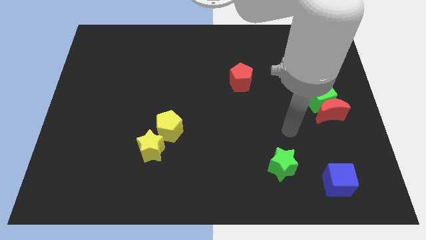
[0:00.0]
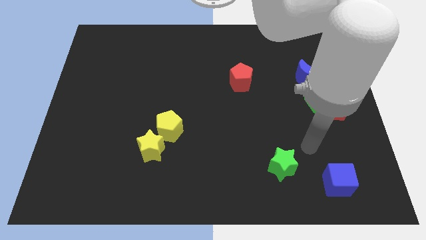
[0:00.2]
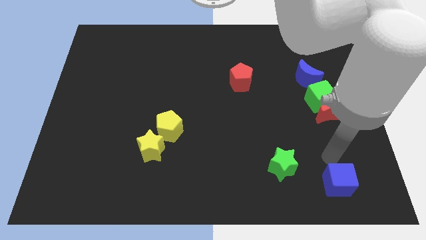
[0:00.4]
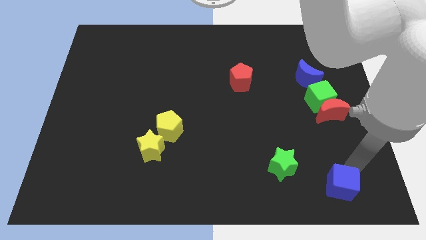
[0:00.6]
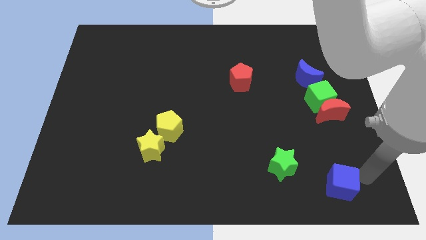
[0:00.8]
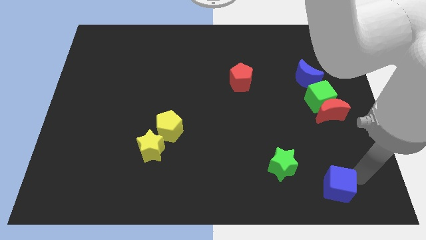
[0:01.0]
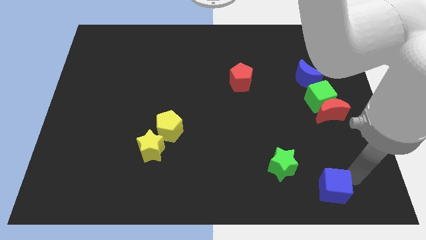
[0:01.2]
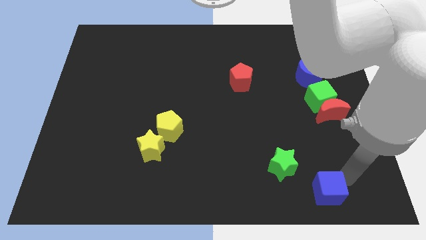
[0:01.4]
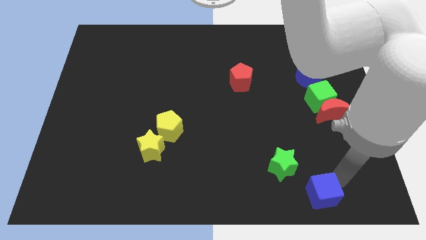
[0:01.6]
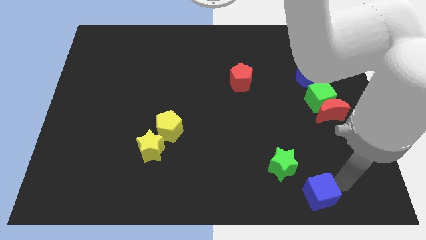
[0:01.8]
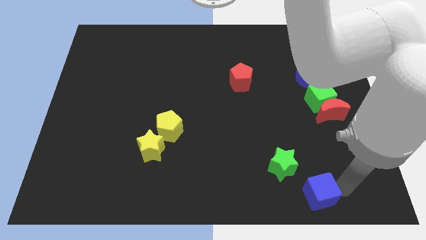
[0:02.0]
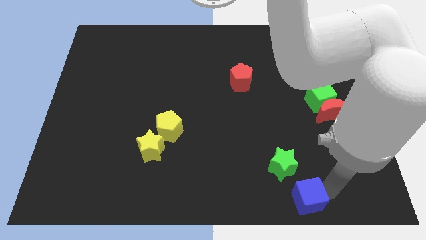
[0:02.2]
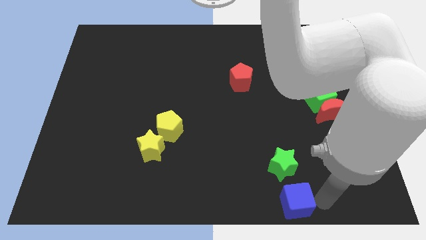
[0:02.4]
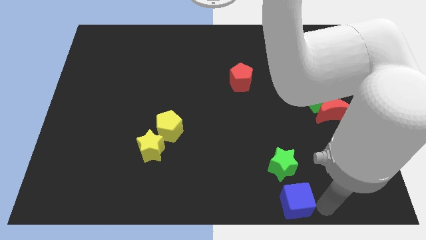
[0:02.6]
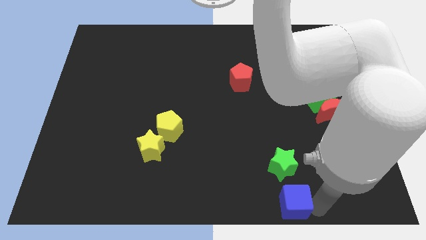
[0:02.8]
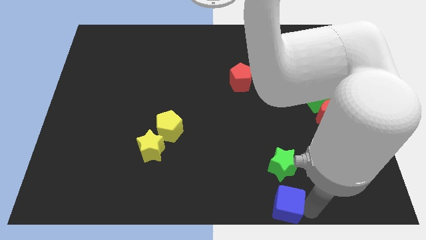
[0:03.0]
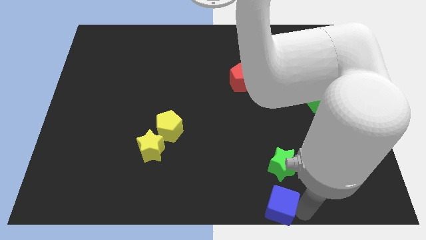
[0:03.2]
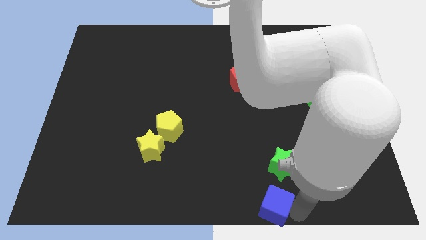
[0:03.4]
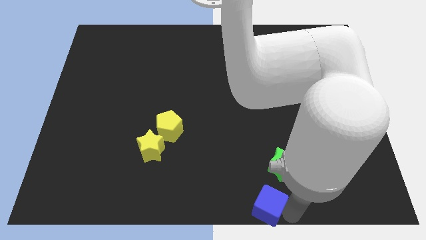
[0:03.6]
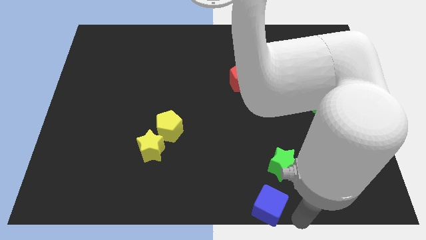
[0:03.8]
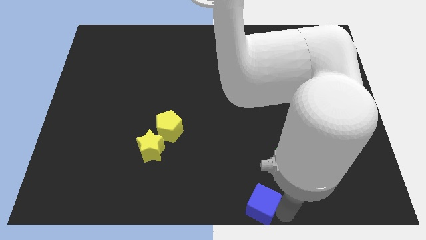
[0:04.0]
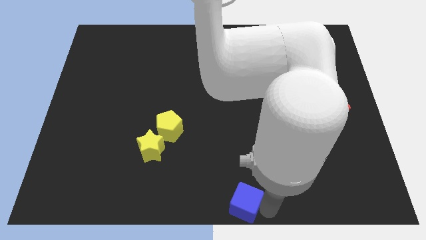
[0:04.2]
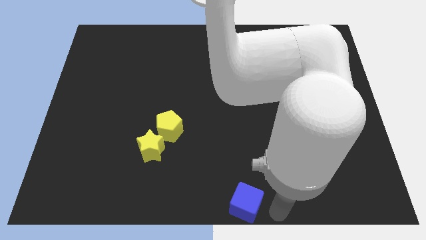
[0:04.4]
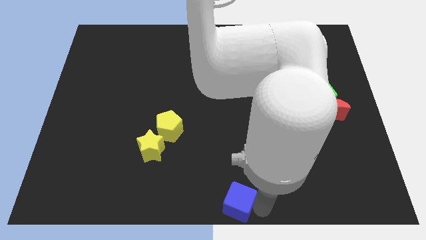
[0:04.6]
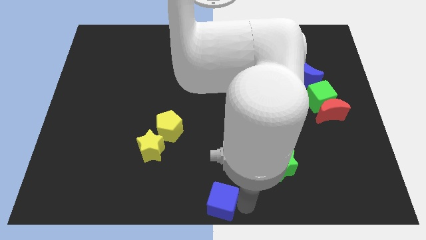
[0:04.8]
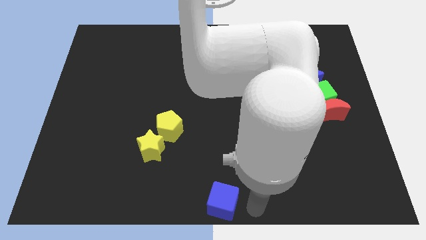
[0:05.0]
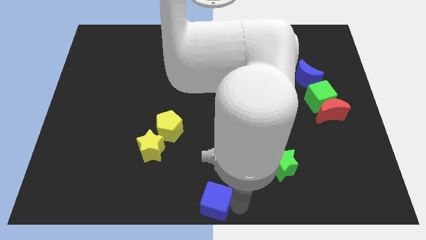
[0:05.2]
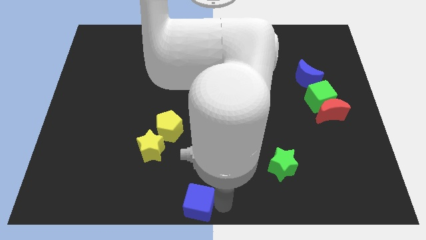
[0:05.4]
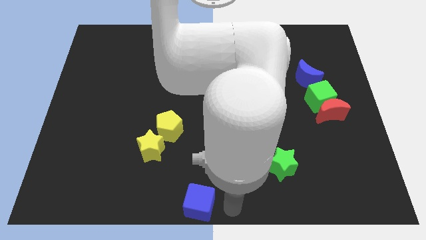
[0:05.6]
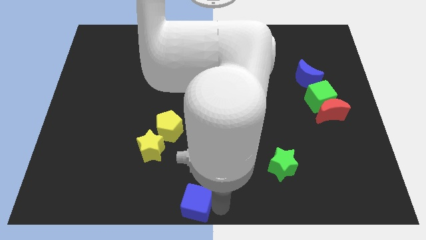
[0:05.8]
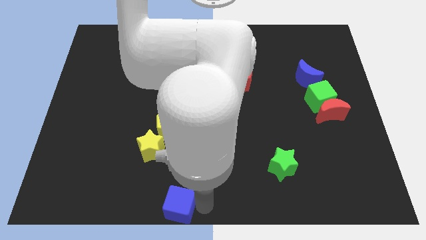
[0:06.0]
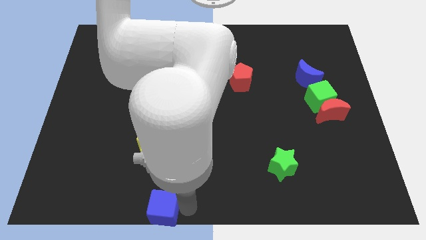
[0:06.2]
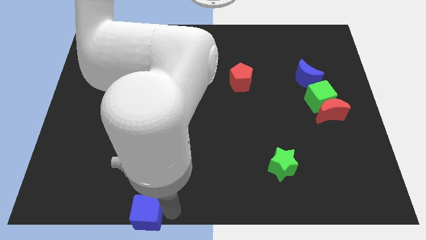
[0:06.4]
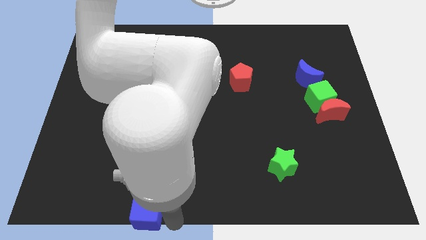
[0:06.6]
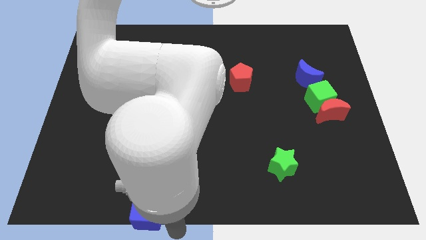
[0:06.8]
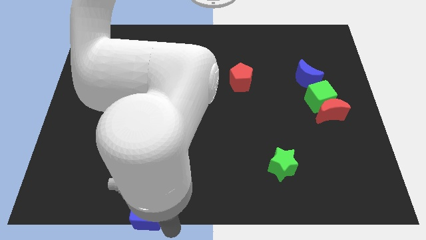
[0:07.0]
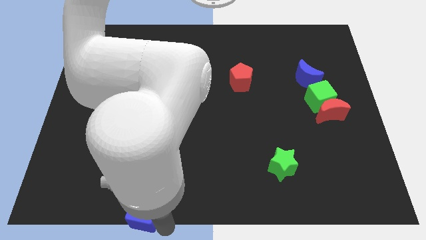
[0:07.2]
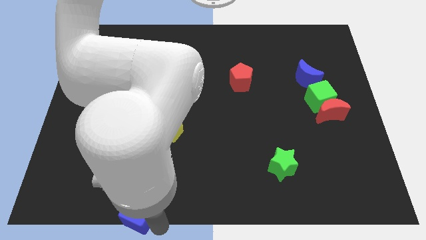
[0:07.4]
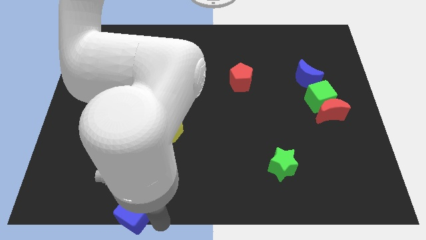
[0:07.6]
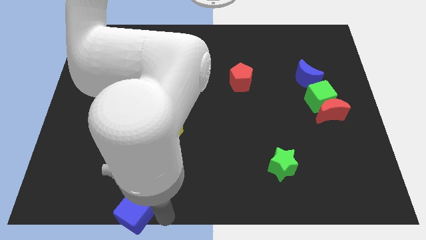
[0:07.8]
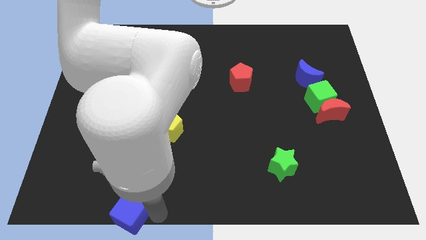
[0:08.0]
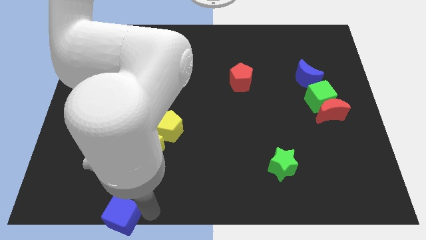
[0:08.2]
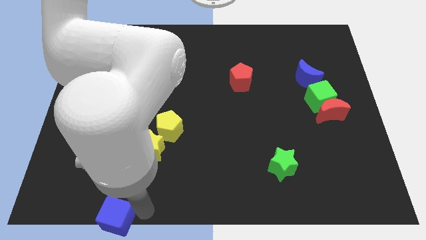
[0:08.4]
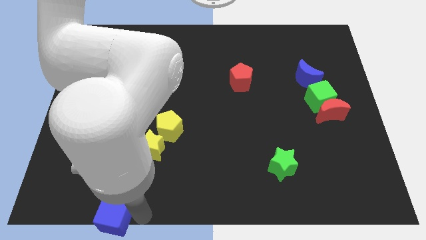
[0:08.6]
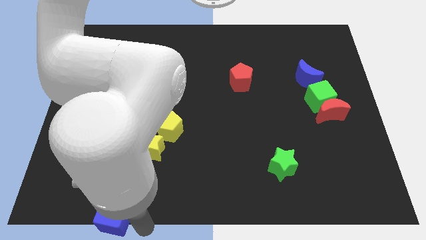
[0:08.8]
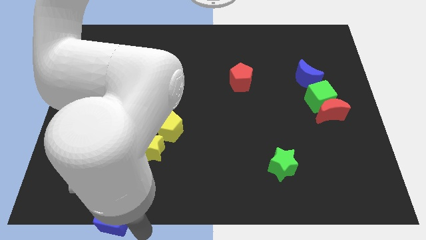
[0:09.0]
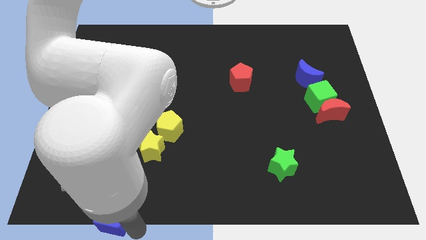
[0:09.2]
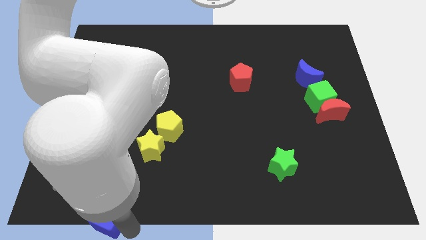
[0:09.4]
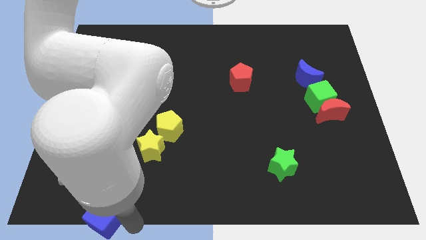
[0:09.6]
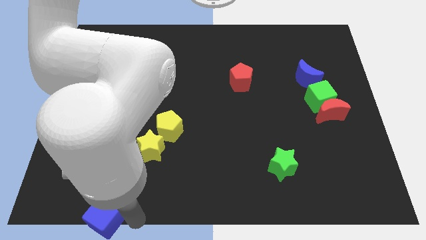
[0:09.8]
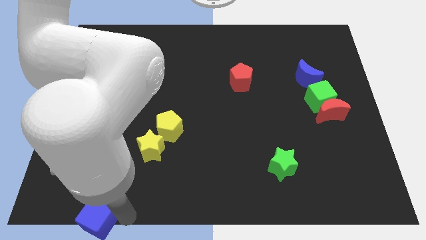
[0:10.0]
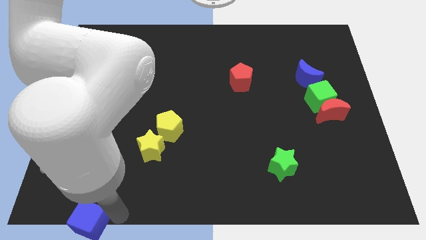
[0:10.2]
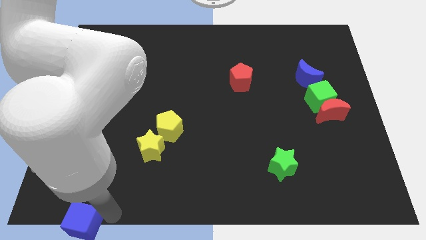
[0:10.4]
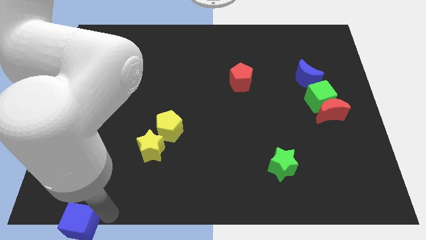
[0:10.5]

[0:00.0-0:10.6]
put the blue cube to the bottom left

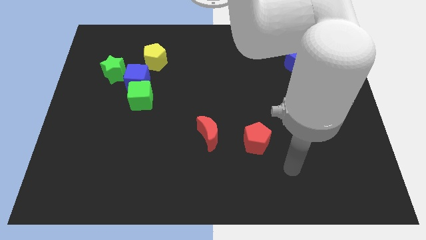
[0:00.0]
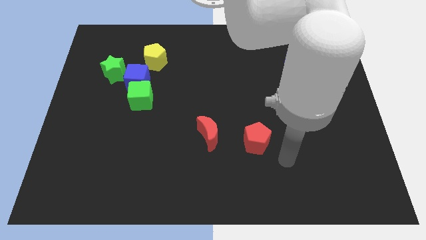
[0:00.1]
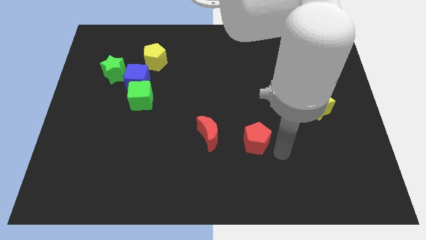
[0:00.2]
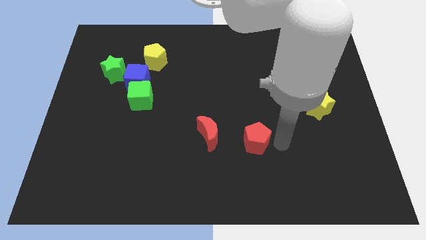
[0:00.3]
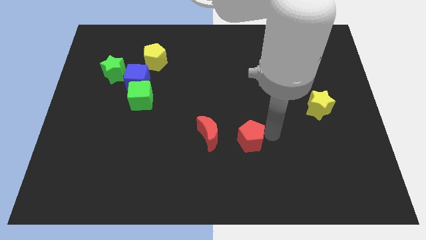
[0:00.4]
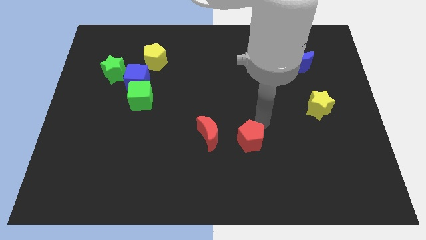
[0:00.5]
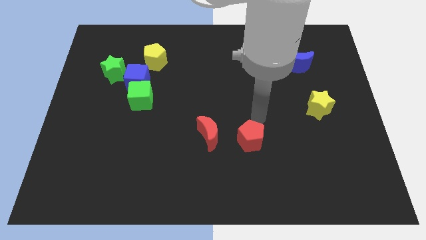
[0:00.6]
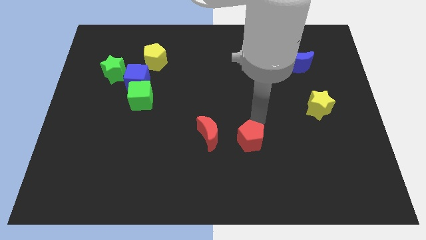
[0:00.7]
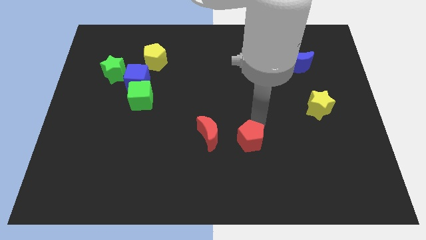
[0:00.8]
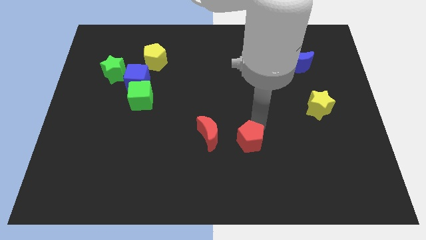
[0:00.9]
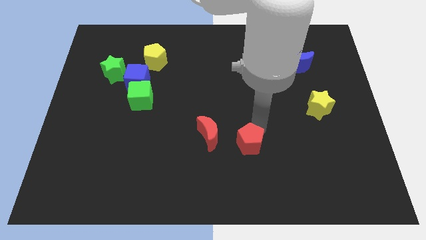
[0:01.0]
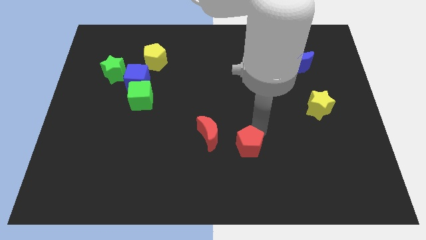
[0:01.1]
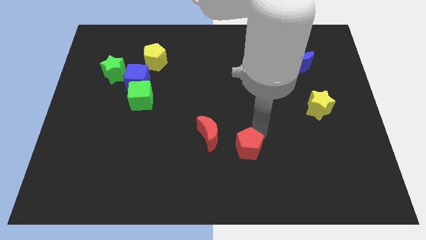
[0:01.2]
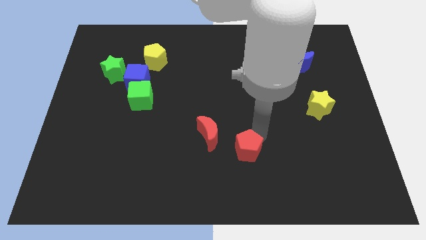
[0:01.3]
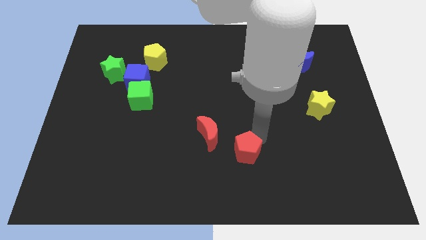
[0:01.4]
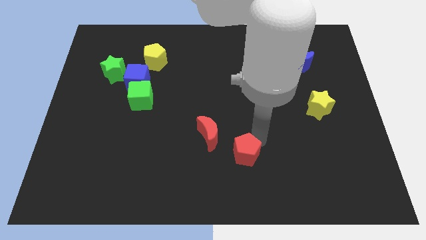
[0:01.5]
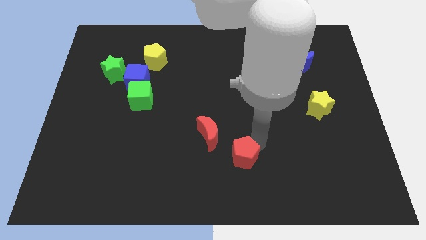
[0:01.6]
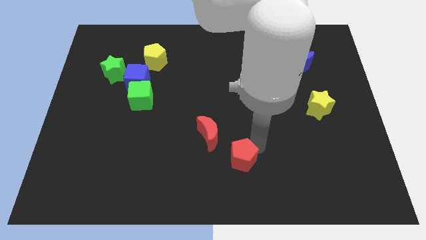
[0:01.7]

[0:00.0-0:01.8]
push the red pentagon to the bottom
